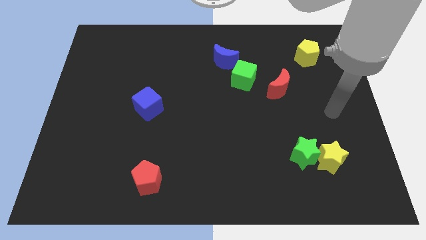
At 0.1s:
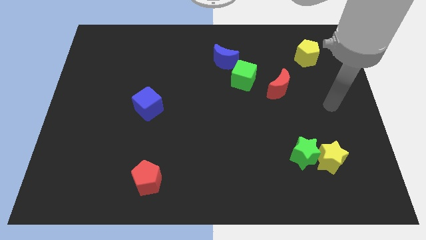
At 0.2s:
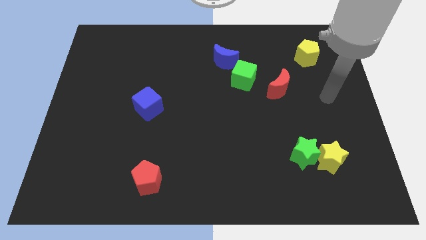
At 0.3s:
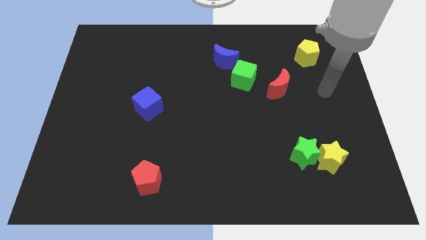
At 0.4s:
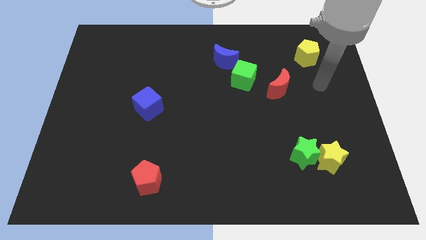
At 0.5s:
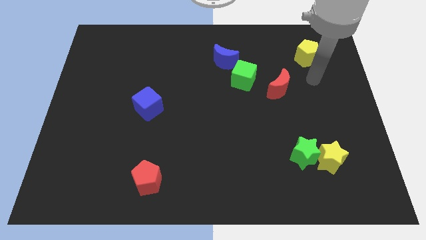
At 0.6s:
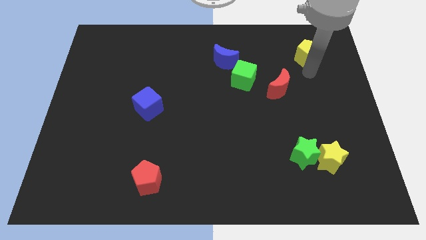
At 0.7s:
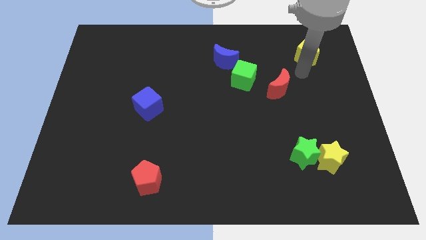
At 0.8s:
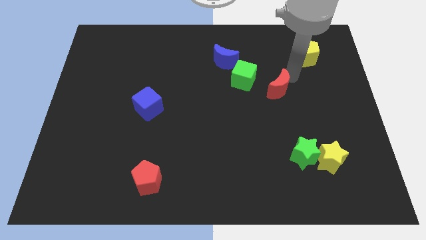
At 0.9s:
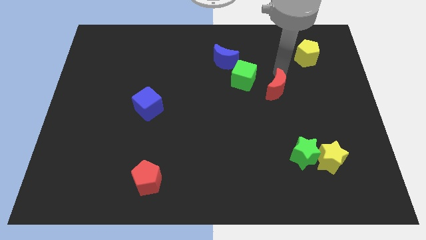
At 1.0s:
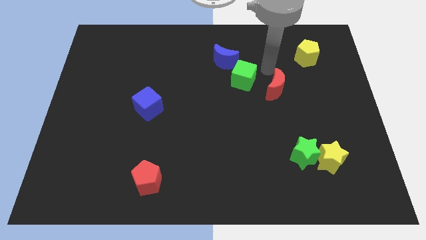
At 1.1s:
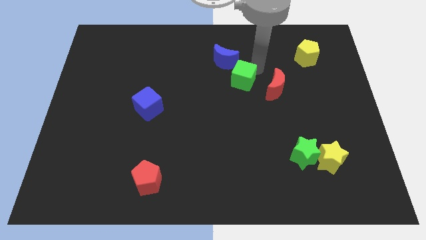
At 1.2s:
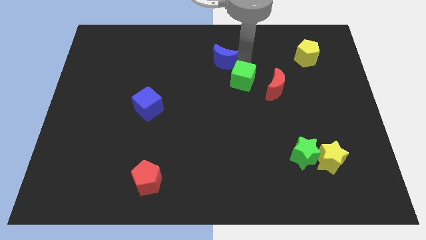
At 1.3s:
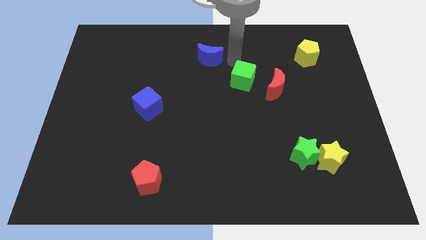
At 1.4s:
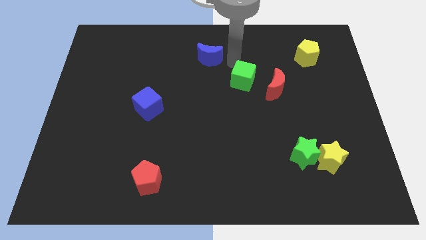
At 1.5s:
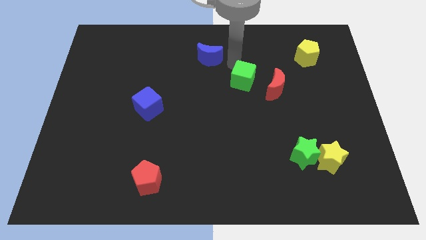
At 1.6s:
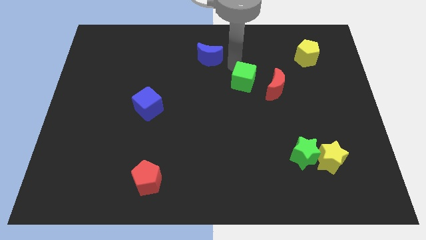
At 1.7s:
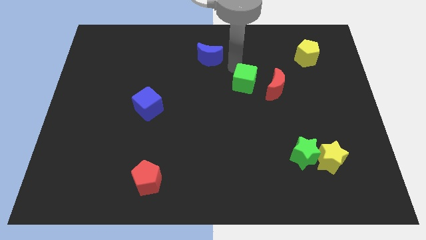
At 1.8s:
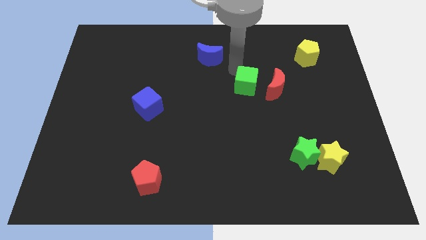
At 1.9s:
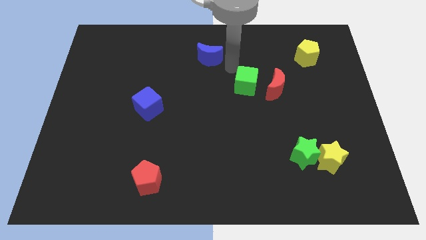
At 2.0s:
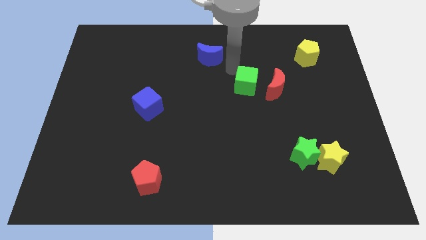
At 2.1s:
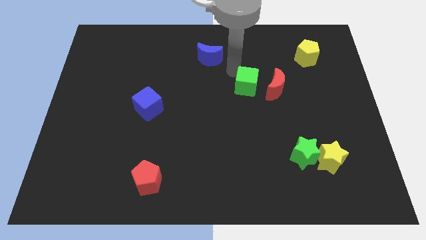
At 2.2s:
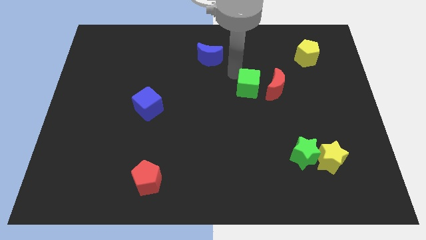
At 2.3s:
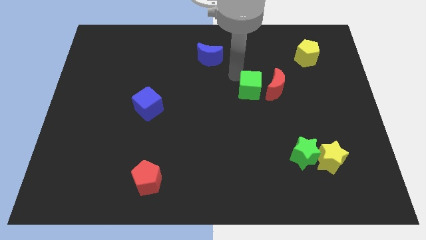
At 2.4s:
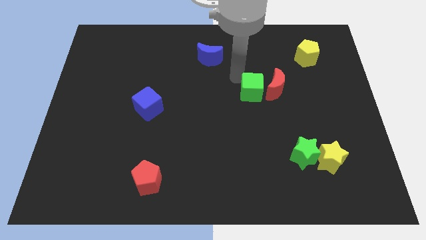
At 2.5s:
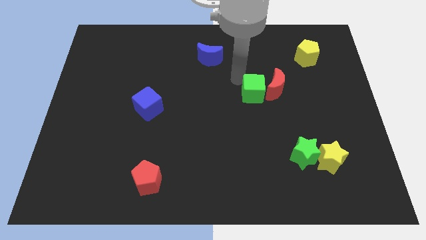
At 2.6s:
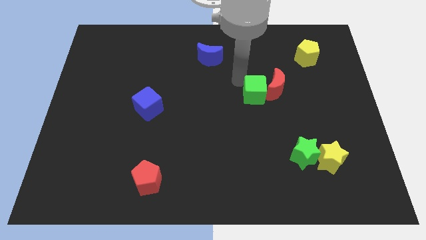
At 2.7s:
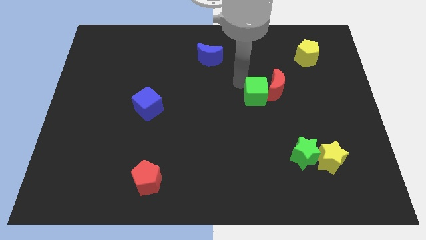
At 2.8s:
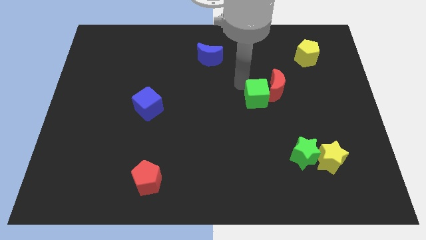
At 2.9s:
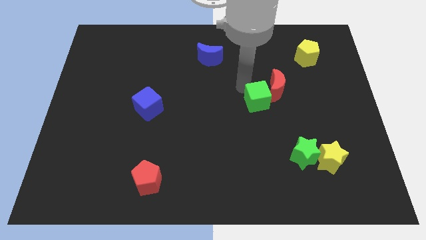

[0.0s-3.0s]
move the green cube down and then to the right a little bit

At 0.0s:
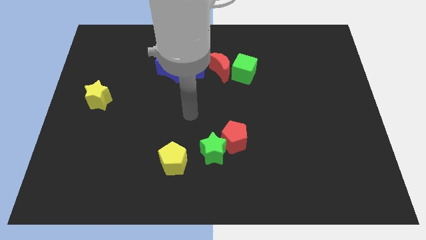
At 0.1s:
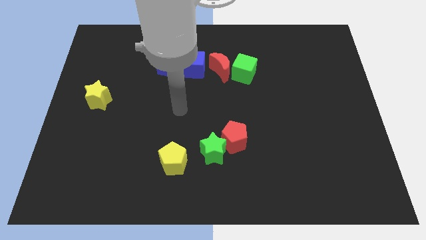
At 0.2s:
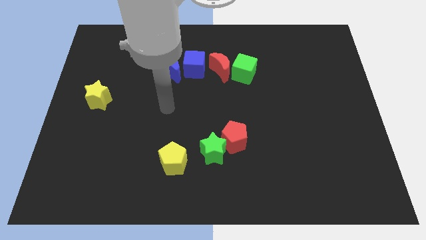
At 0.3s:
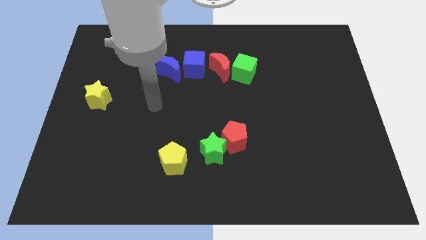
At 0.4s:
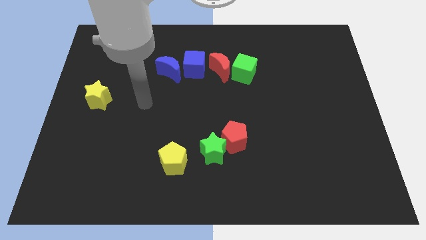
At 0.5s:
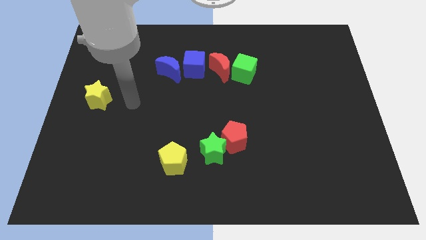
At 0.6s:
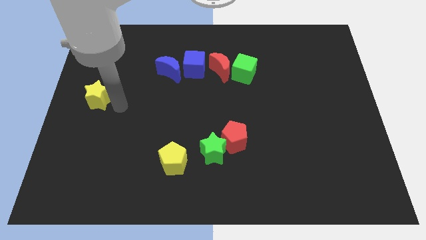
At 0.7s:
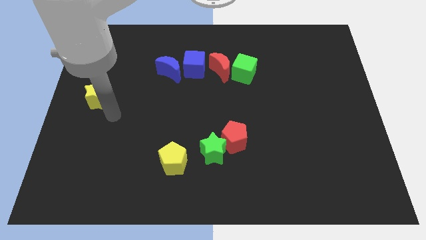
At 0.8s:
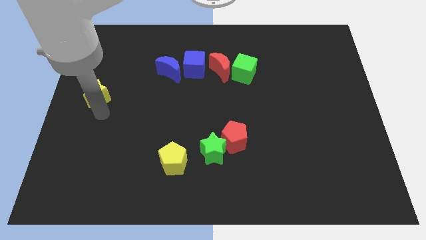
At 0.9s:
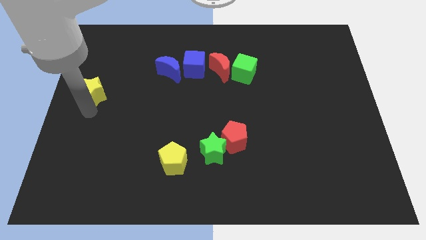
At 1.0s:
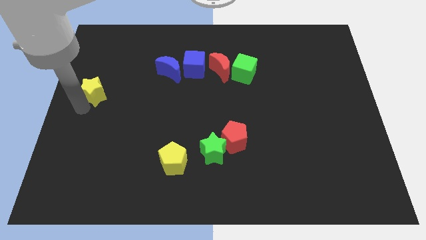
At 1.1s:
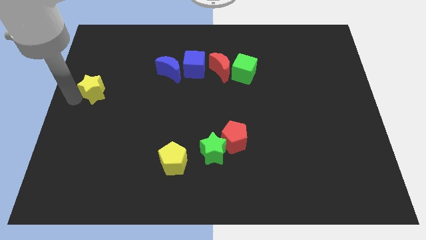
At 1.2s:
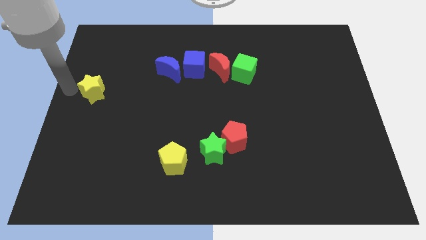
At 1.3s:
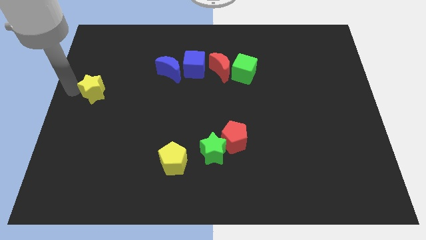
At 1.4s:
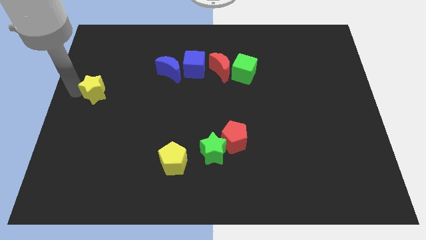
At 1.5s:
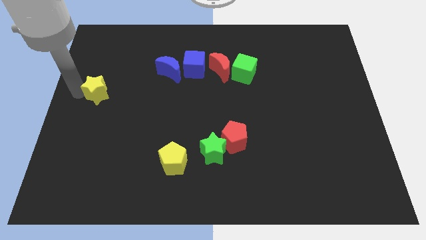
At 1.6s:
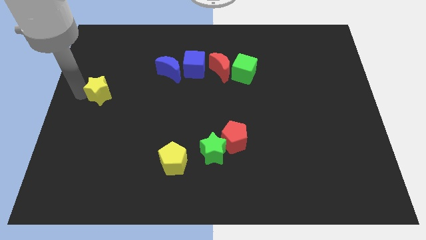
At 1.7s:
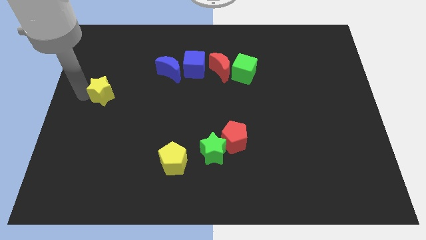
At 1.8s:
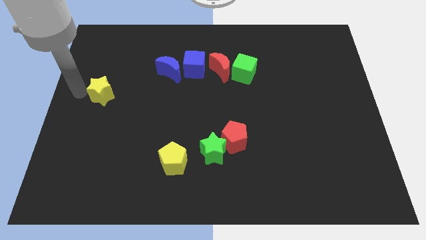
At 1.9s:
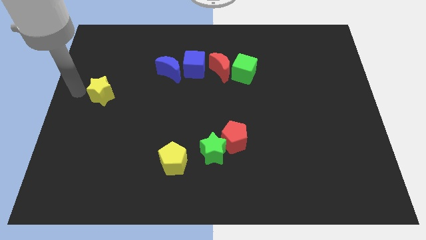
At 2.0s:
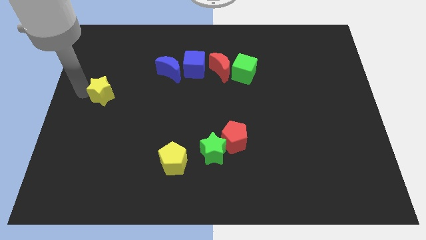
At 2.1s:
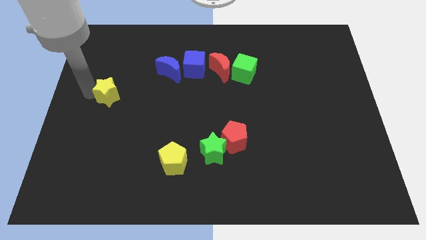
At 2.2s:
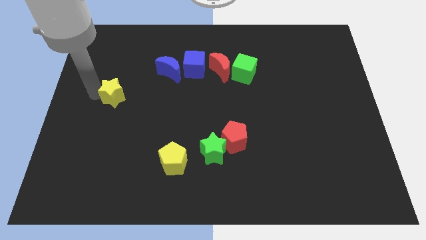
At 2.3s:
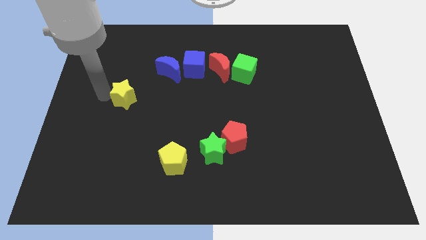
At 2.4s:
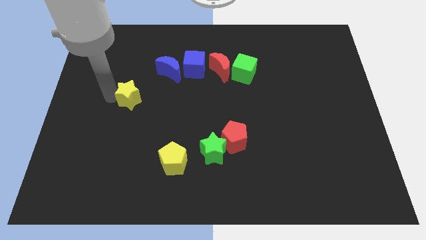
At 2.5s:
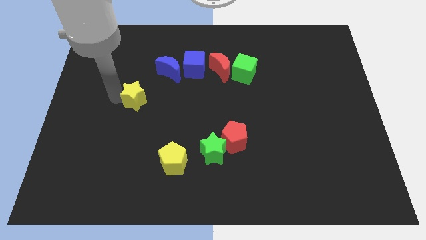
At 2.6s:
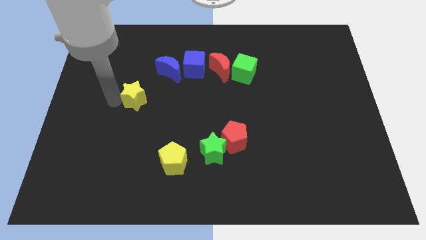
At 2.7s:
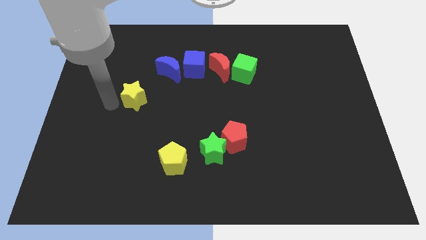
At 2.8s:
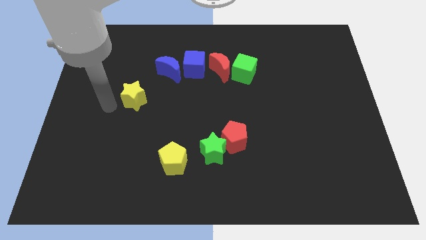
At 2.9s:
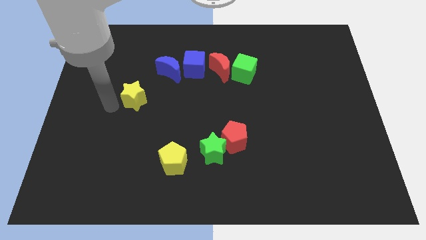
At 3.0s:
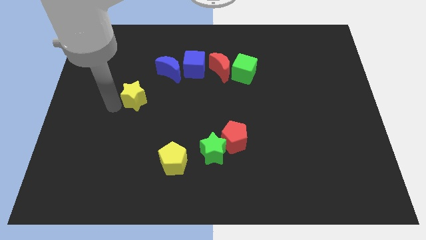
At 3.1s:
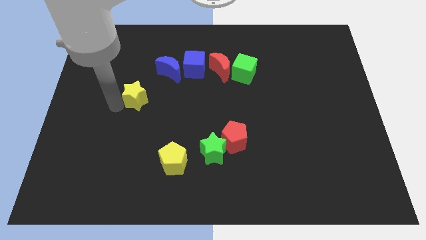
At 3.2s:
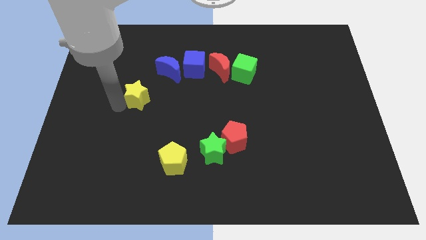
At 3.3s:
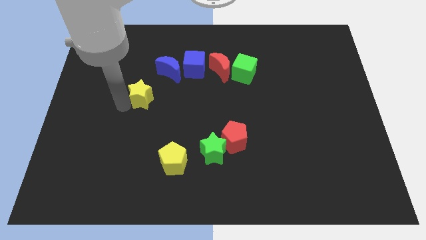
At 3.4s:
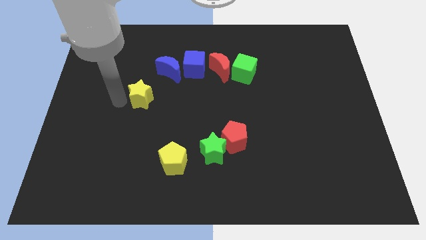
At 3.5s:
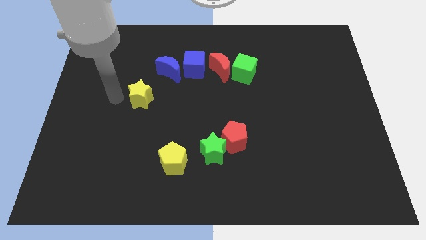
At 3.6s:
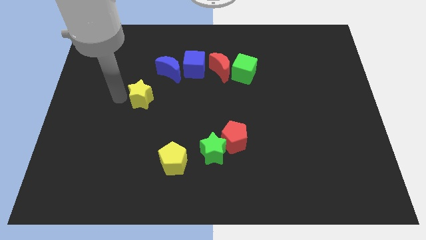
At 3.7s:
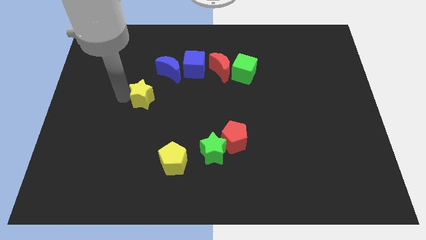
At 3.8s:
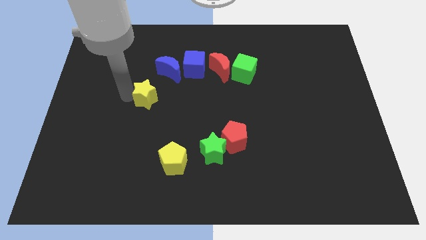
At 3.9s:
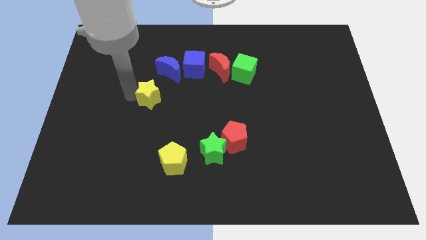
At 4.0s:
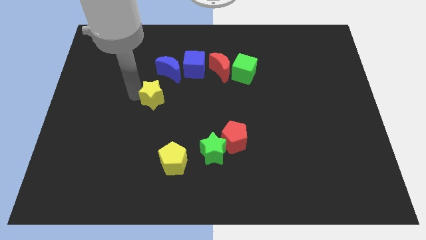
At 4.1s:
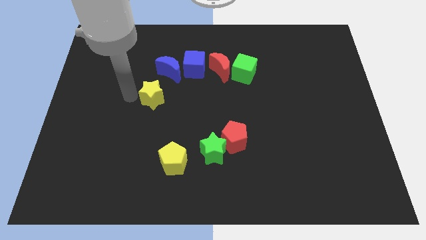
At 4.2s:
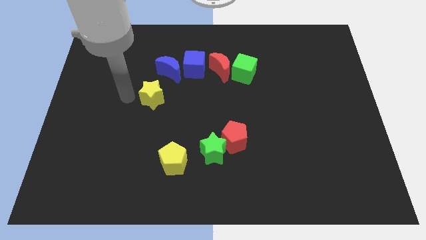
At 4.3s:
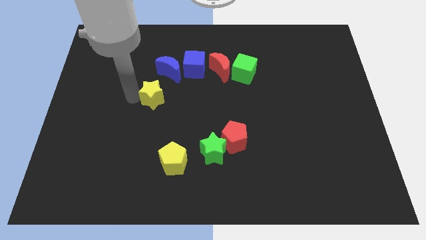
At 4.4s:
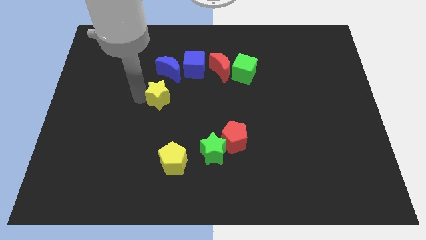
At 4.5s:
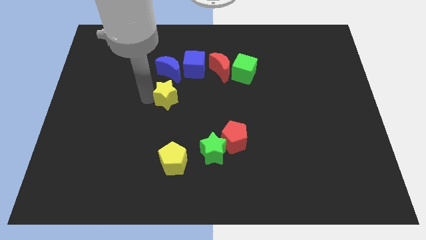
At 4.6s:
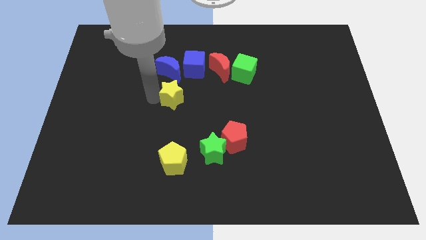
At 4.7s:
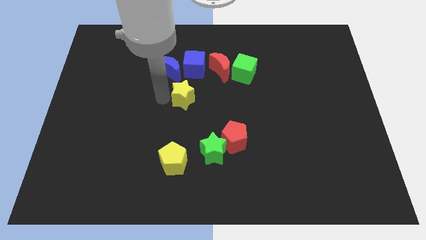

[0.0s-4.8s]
slide the yellow star to the right

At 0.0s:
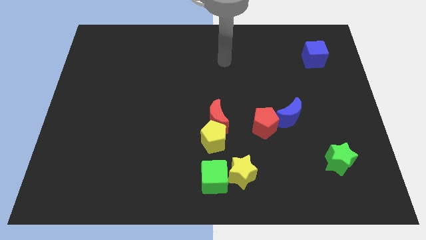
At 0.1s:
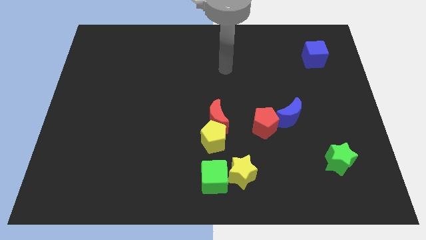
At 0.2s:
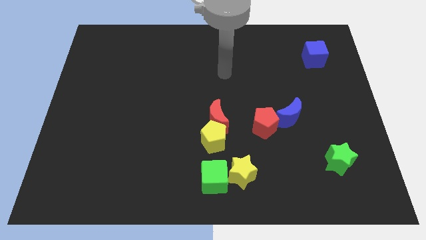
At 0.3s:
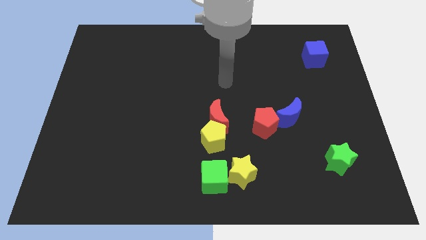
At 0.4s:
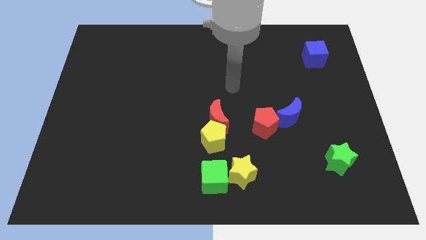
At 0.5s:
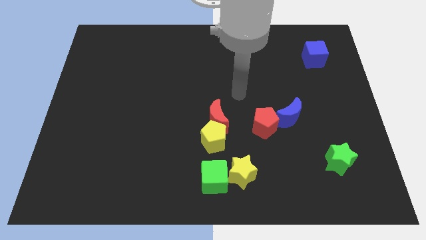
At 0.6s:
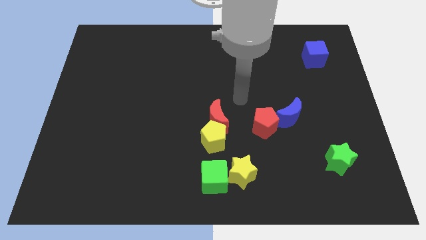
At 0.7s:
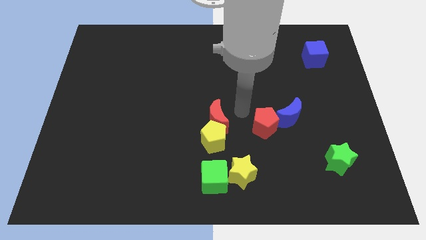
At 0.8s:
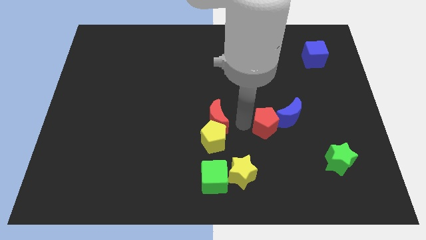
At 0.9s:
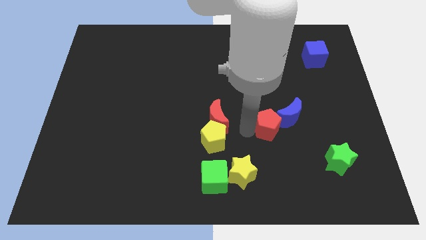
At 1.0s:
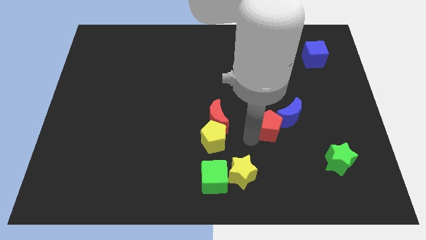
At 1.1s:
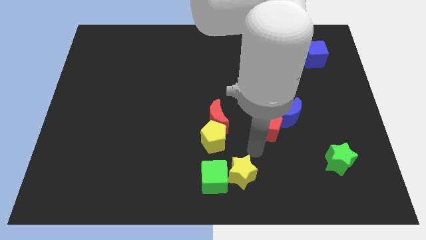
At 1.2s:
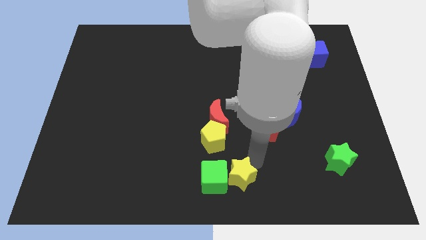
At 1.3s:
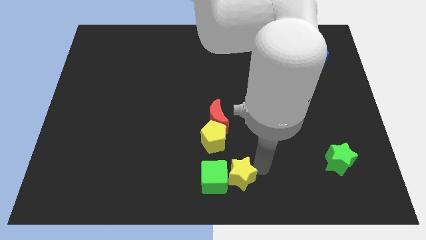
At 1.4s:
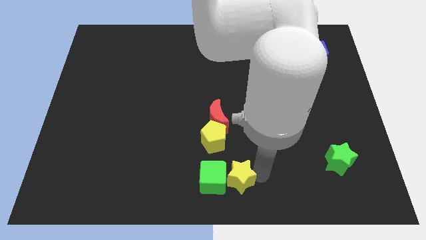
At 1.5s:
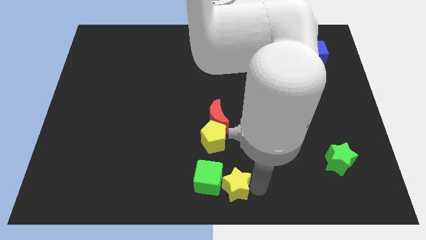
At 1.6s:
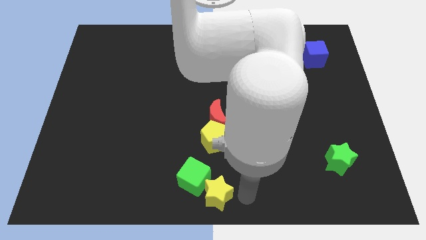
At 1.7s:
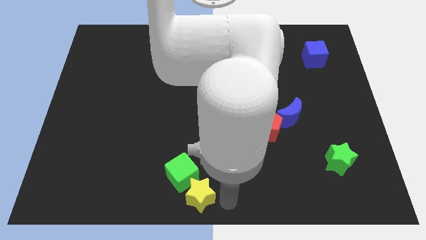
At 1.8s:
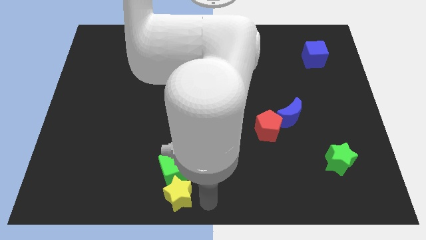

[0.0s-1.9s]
slide the green cube up and left a little bit
